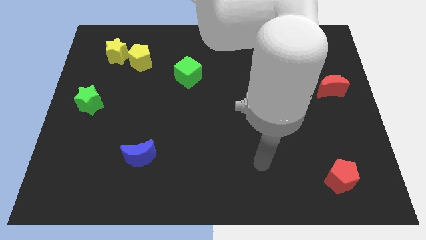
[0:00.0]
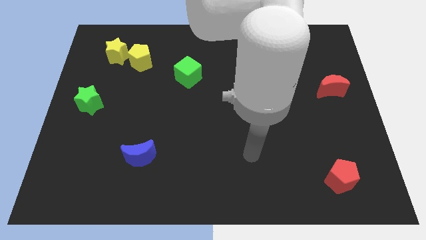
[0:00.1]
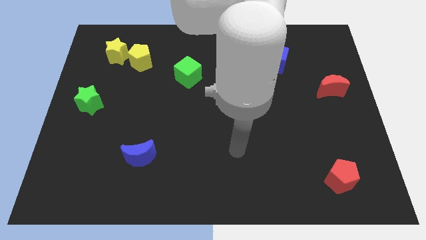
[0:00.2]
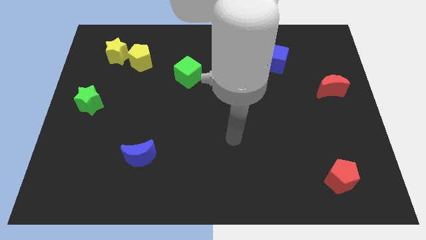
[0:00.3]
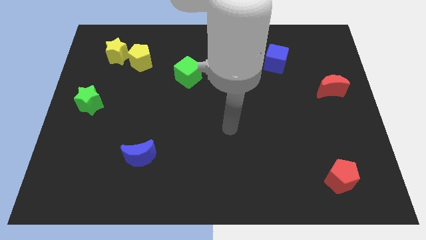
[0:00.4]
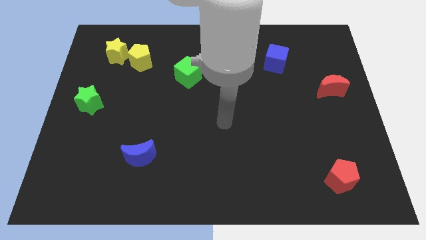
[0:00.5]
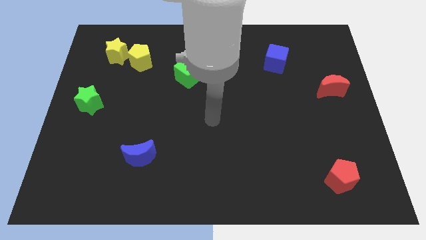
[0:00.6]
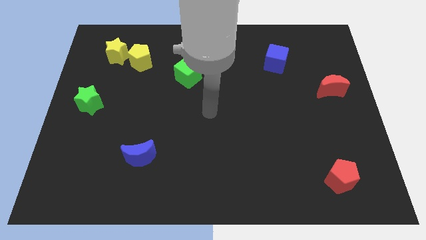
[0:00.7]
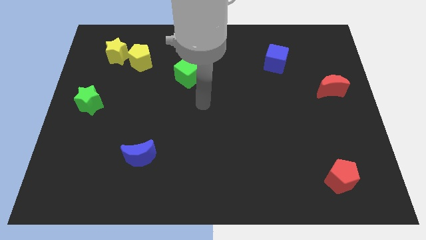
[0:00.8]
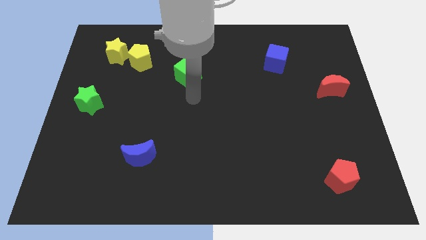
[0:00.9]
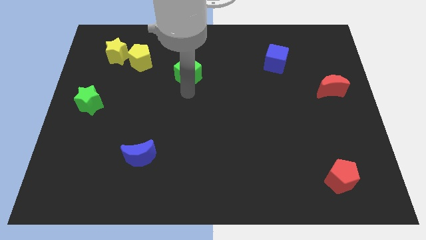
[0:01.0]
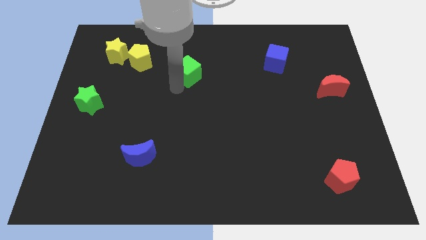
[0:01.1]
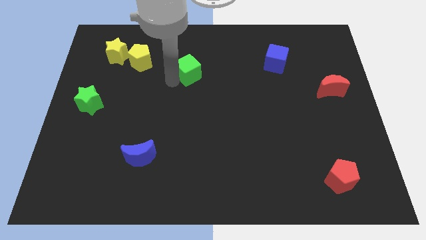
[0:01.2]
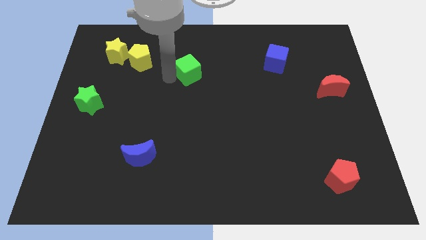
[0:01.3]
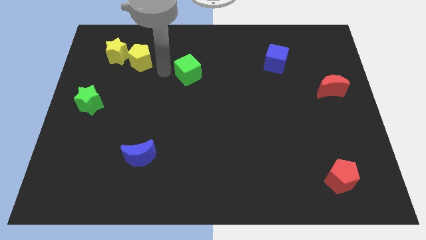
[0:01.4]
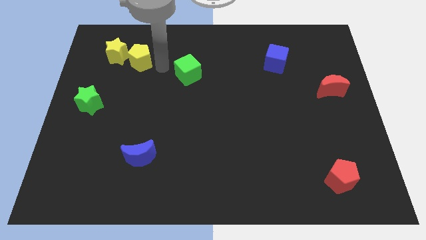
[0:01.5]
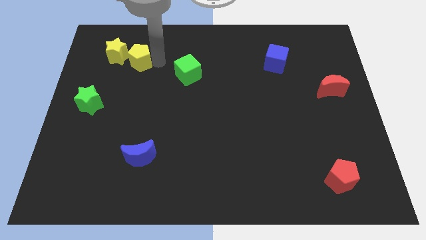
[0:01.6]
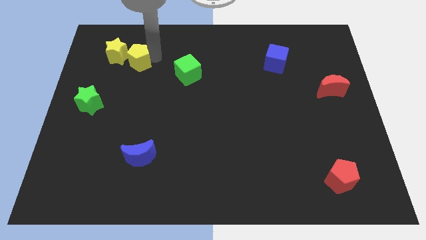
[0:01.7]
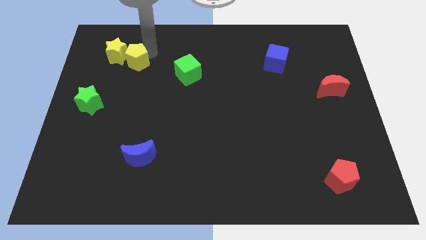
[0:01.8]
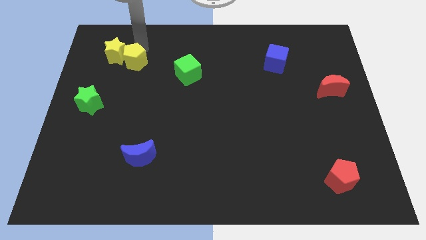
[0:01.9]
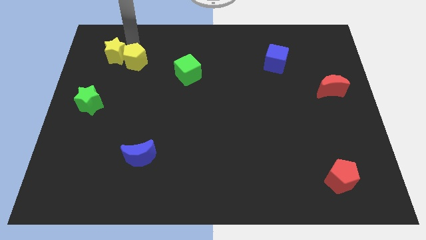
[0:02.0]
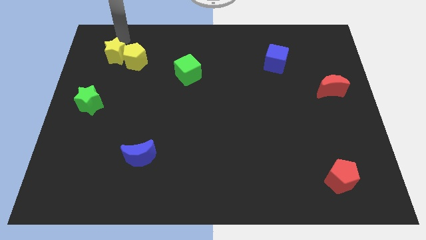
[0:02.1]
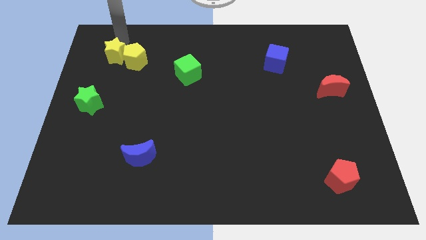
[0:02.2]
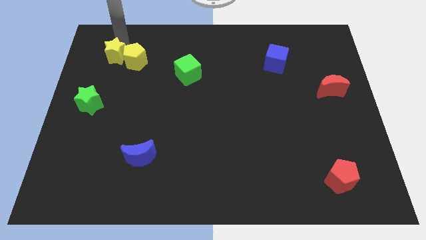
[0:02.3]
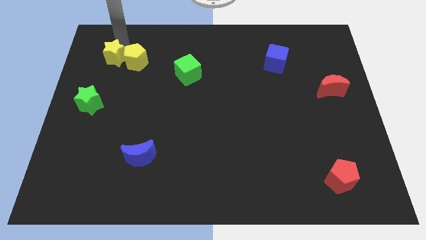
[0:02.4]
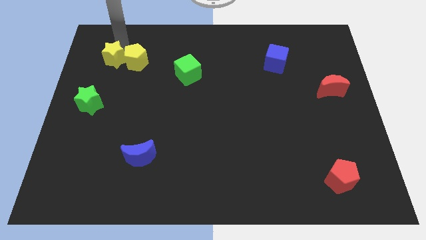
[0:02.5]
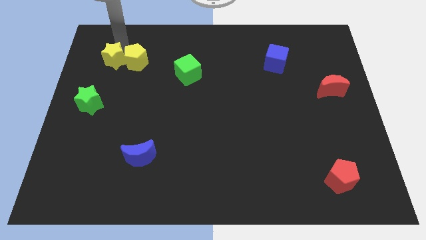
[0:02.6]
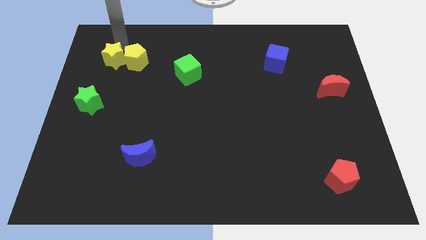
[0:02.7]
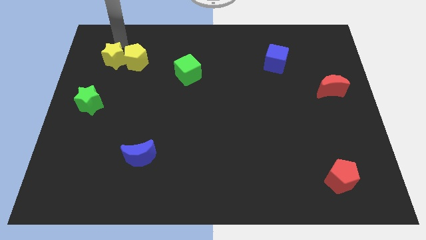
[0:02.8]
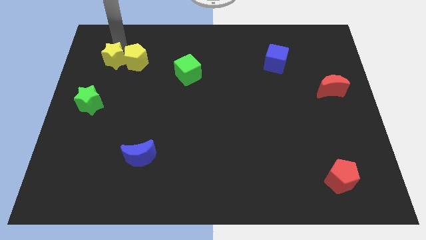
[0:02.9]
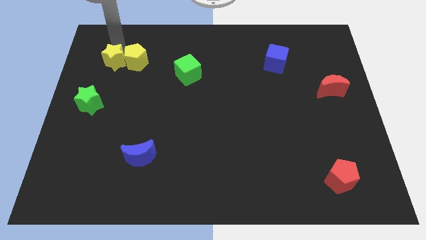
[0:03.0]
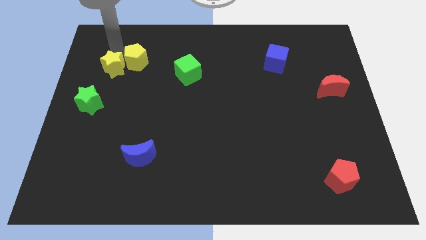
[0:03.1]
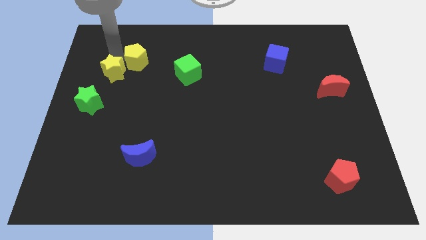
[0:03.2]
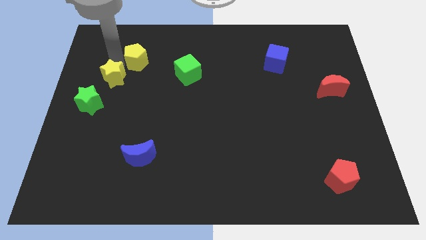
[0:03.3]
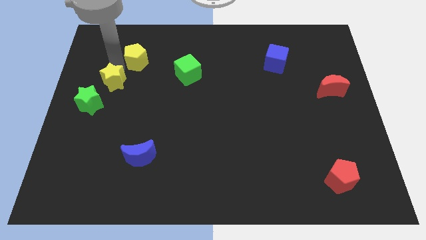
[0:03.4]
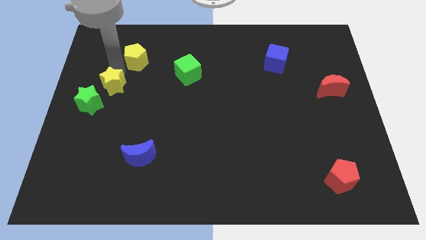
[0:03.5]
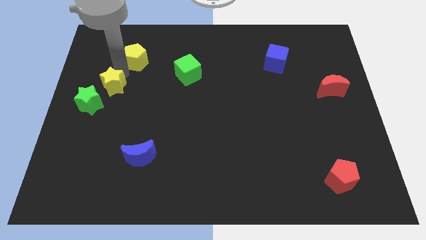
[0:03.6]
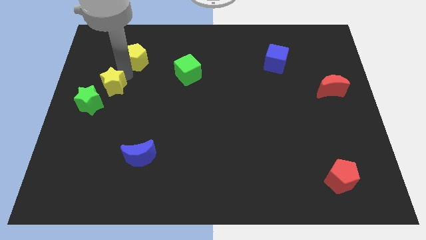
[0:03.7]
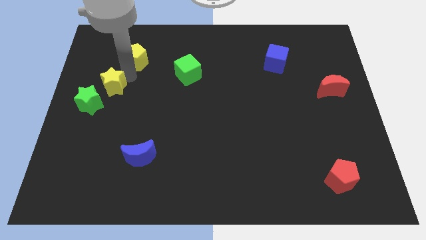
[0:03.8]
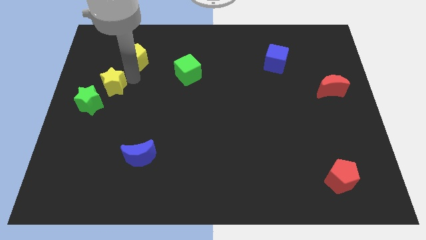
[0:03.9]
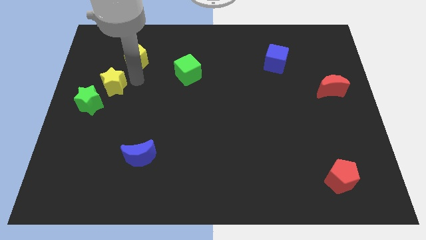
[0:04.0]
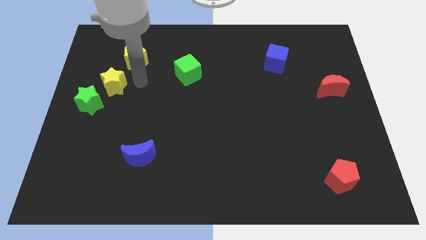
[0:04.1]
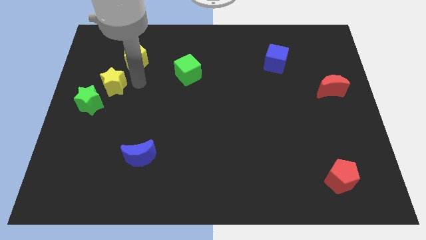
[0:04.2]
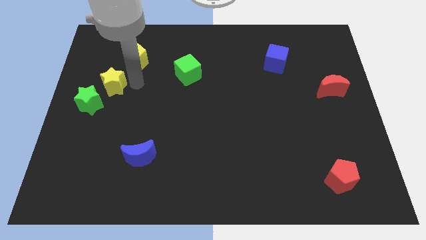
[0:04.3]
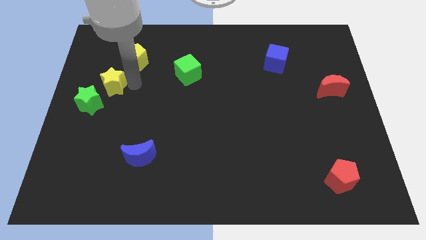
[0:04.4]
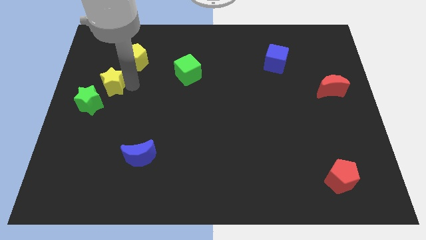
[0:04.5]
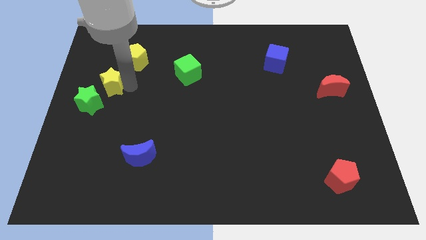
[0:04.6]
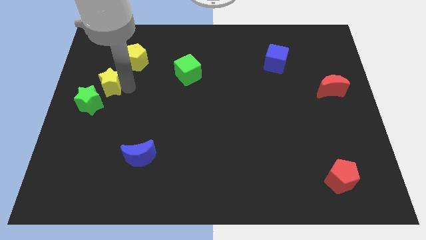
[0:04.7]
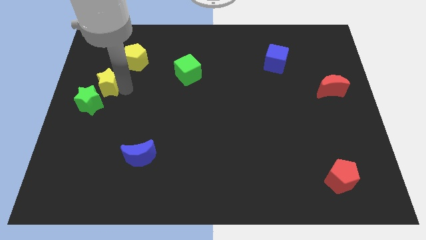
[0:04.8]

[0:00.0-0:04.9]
push the yellow star close to the green star
